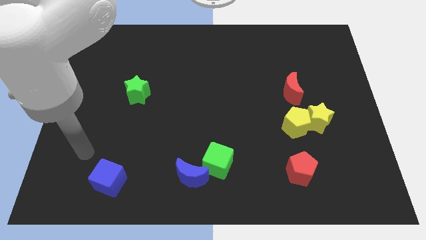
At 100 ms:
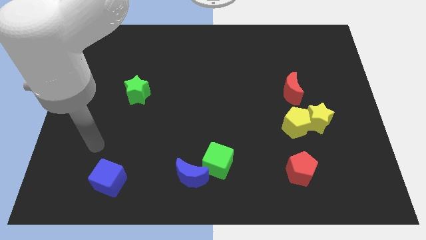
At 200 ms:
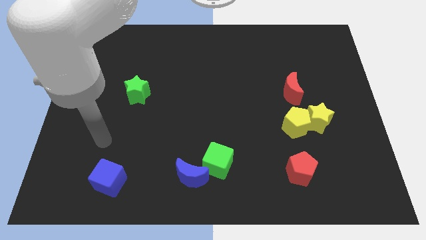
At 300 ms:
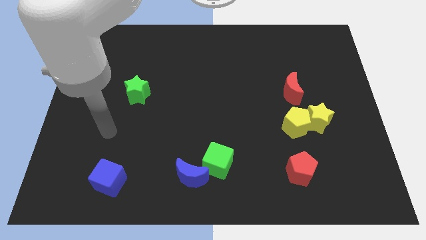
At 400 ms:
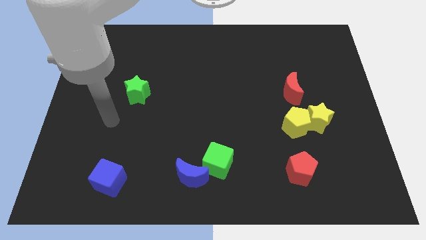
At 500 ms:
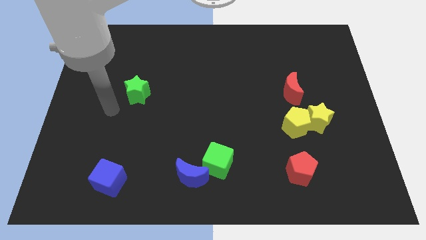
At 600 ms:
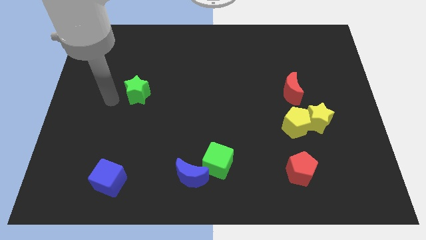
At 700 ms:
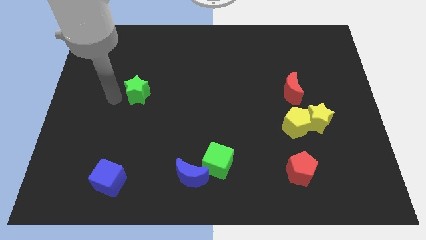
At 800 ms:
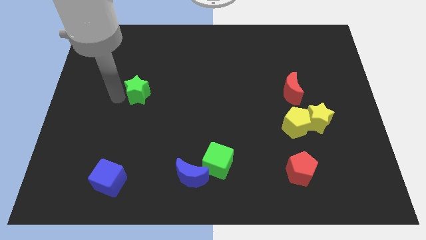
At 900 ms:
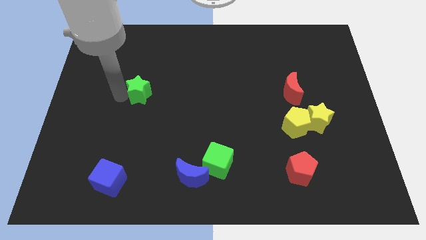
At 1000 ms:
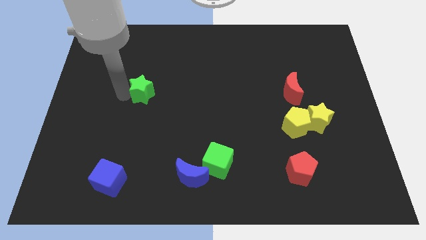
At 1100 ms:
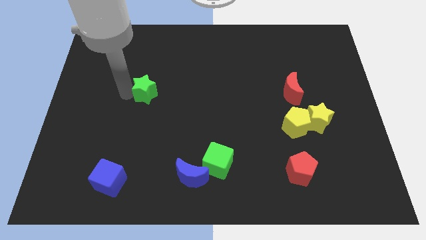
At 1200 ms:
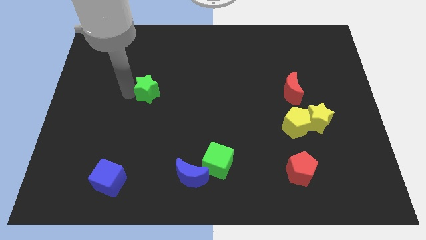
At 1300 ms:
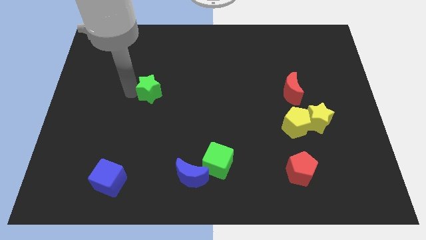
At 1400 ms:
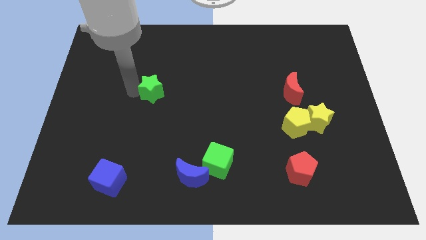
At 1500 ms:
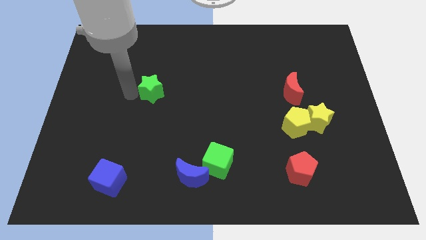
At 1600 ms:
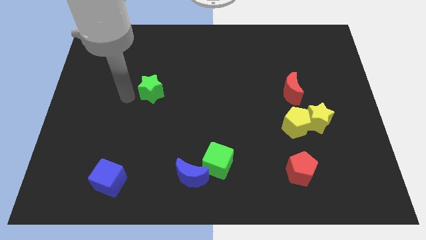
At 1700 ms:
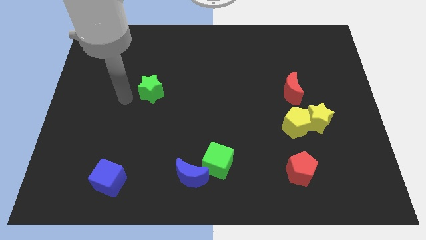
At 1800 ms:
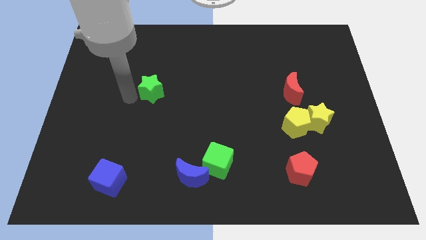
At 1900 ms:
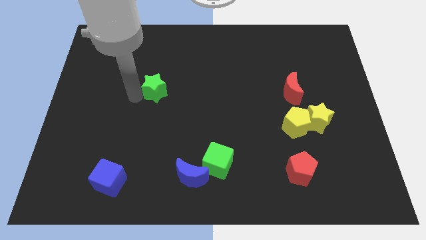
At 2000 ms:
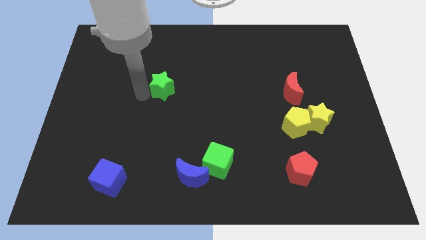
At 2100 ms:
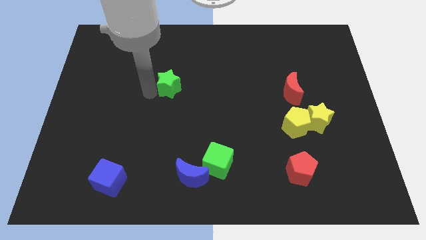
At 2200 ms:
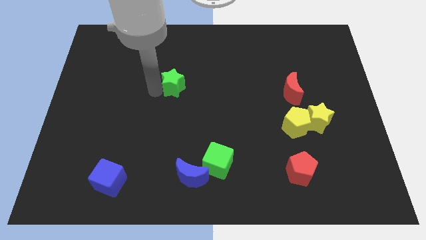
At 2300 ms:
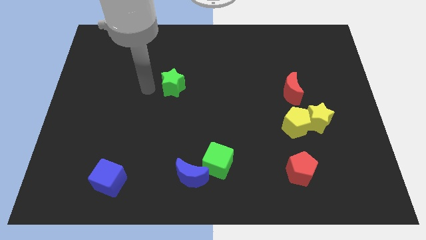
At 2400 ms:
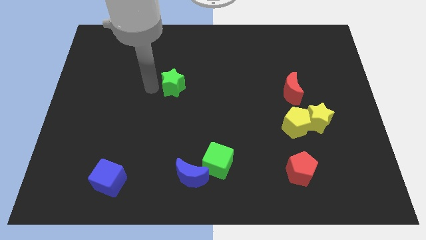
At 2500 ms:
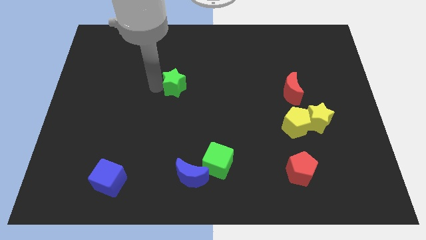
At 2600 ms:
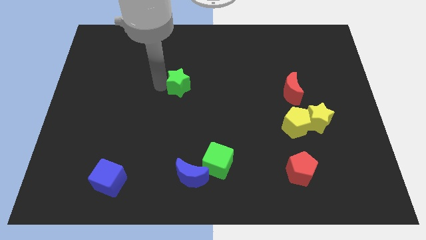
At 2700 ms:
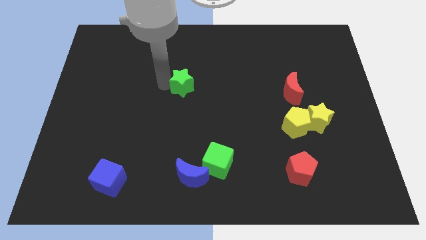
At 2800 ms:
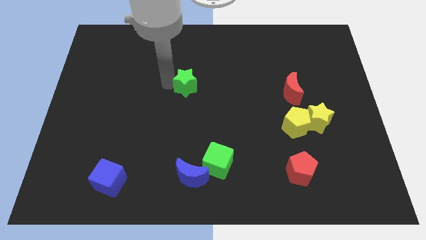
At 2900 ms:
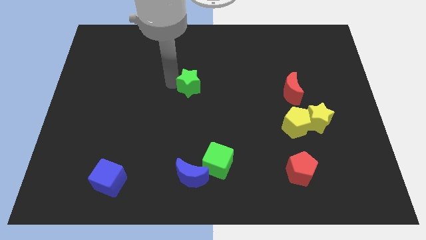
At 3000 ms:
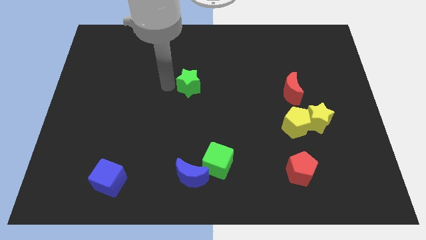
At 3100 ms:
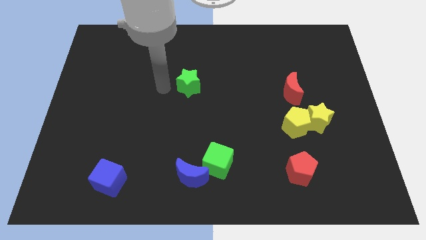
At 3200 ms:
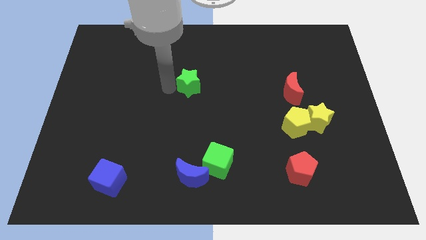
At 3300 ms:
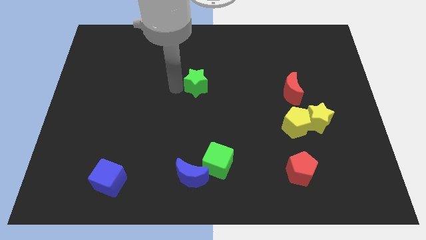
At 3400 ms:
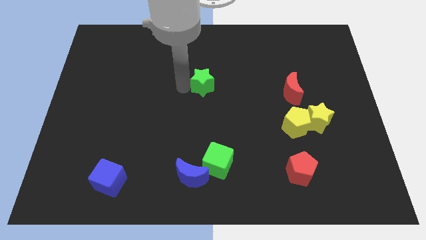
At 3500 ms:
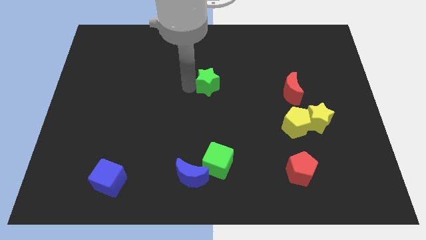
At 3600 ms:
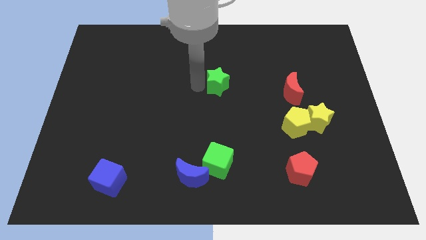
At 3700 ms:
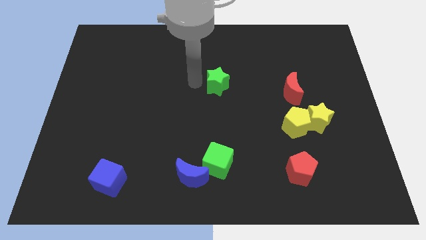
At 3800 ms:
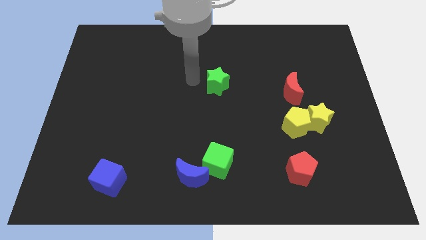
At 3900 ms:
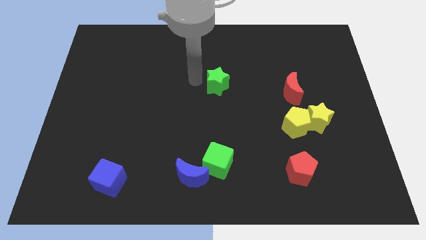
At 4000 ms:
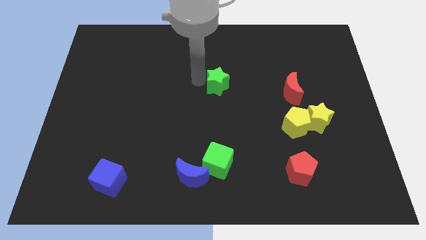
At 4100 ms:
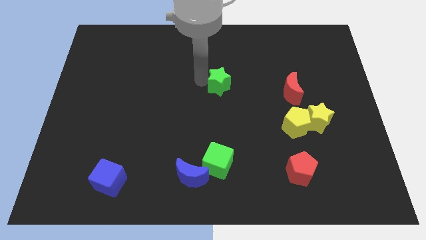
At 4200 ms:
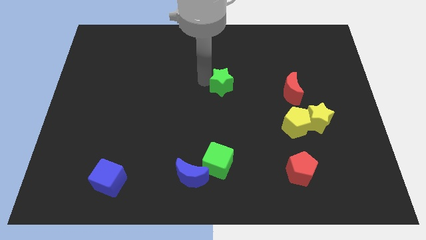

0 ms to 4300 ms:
push the green star to the right

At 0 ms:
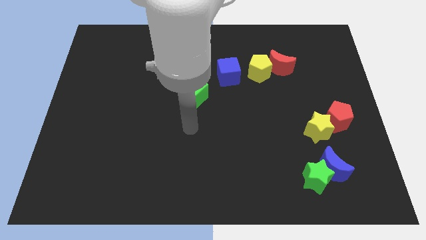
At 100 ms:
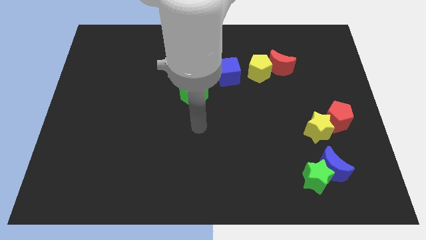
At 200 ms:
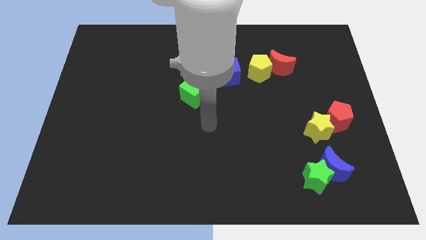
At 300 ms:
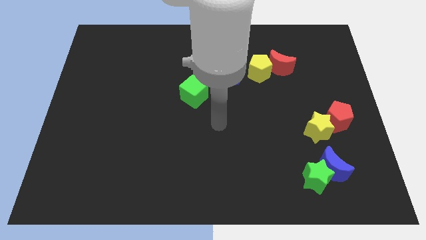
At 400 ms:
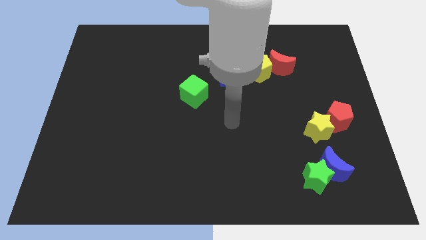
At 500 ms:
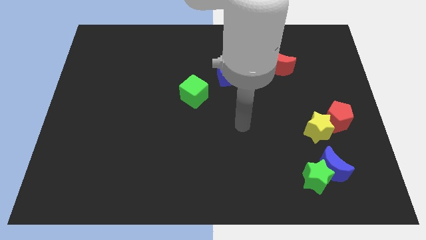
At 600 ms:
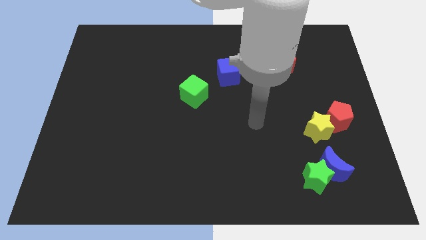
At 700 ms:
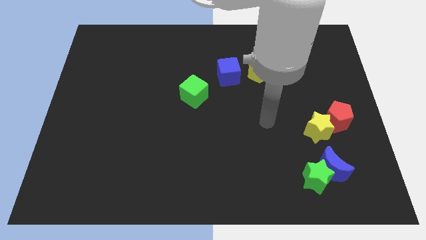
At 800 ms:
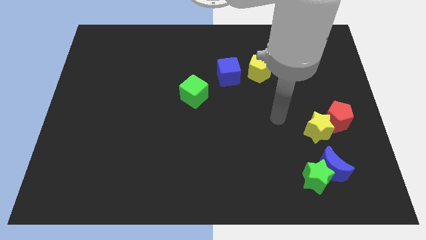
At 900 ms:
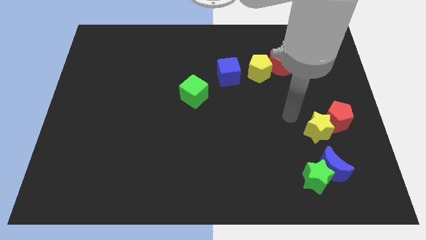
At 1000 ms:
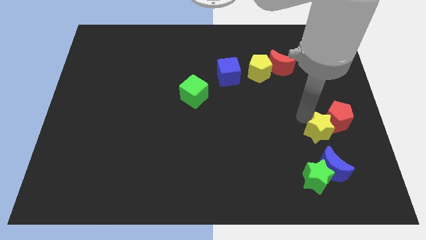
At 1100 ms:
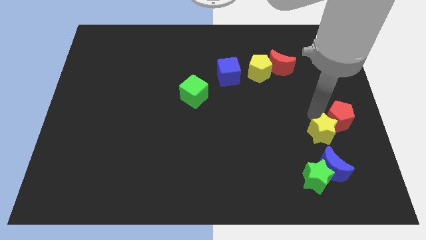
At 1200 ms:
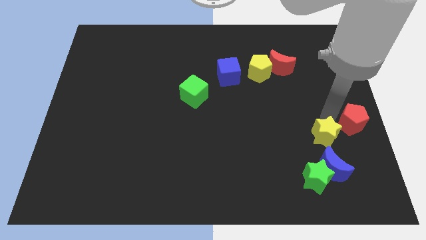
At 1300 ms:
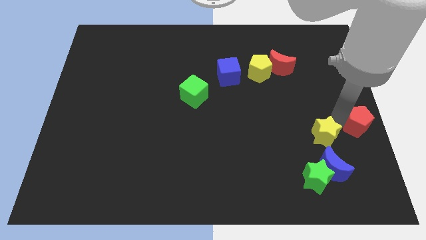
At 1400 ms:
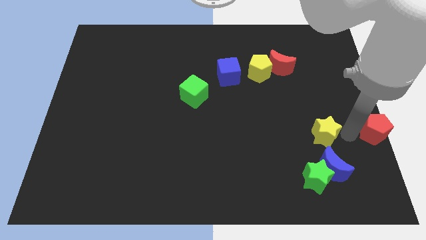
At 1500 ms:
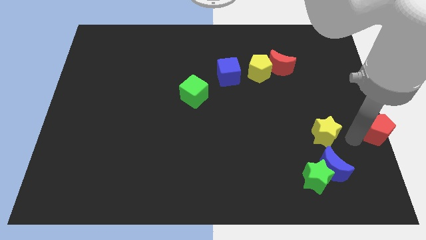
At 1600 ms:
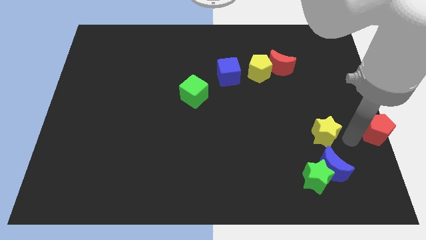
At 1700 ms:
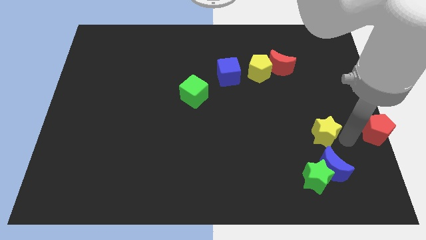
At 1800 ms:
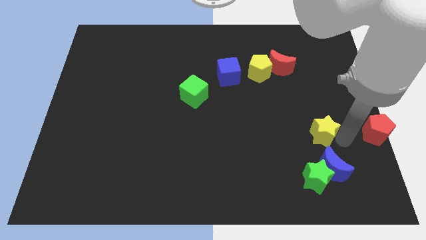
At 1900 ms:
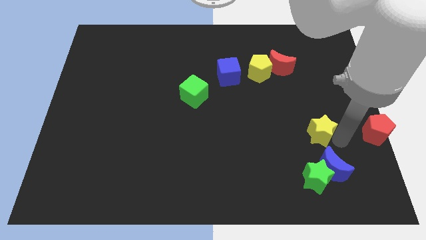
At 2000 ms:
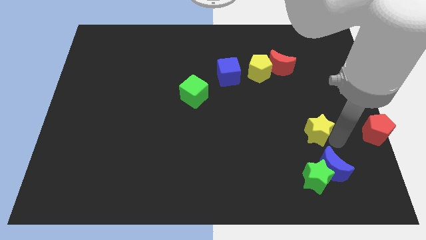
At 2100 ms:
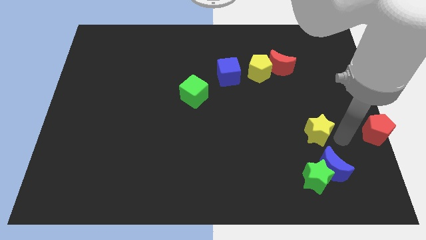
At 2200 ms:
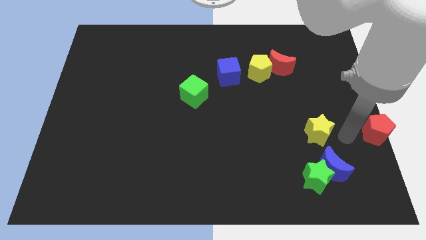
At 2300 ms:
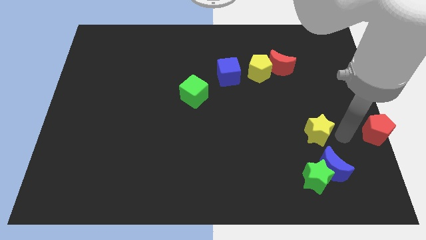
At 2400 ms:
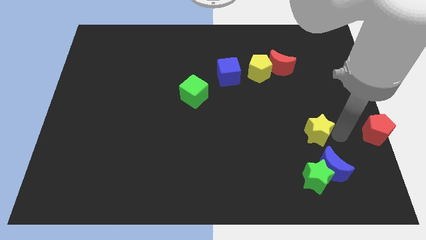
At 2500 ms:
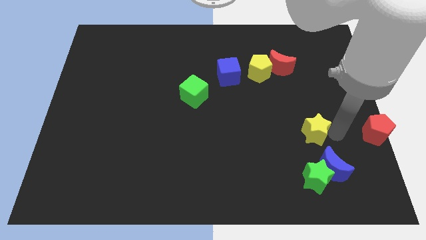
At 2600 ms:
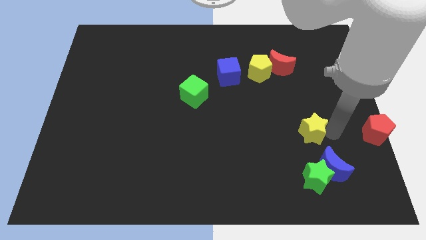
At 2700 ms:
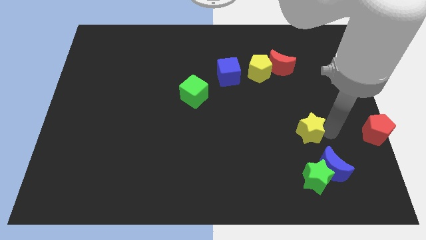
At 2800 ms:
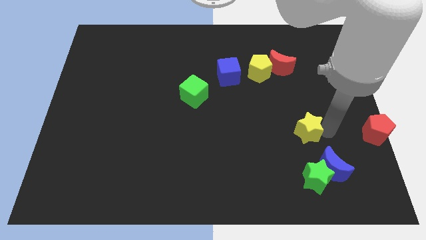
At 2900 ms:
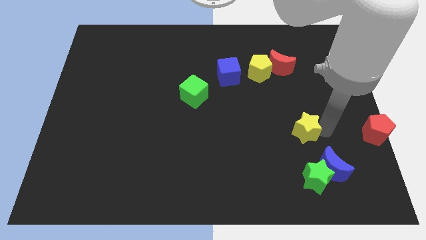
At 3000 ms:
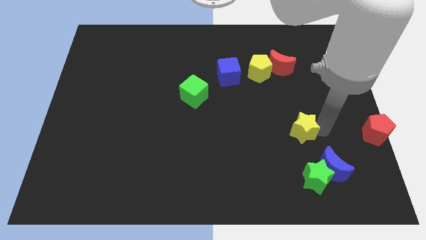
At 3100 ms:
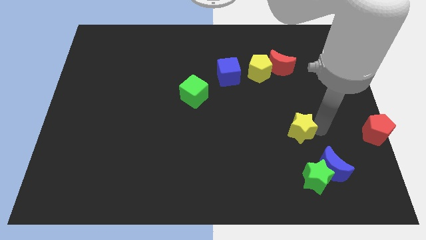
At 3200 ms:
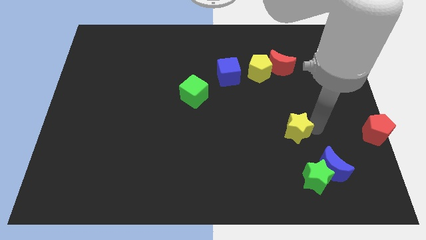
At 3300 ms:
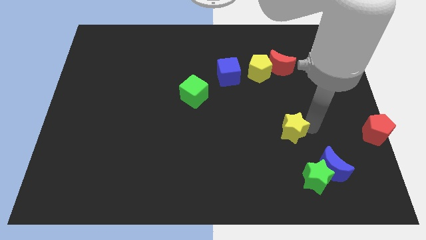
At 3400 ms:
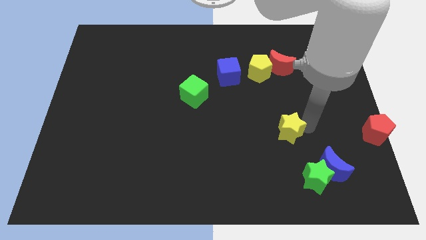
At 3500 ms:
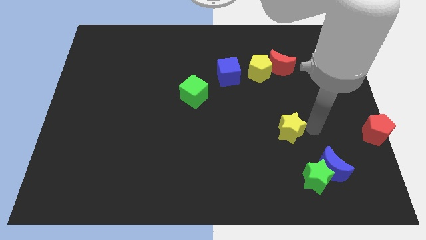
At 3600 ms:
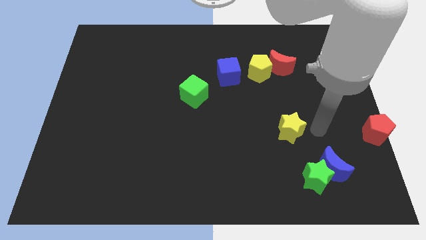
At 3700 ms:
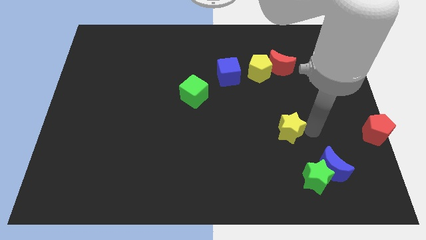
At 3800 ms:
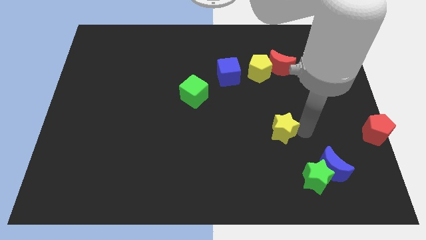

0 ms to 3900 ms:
slightly slide the yellow star to the left
